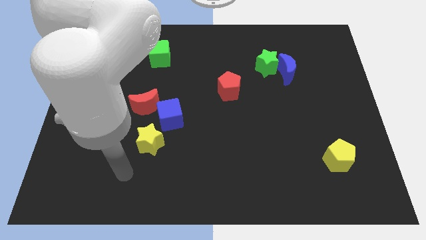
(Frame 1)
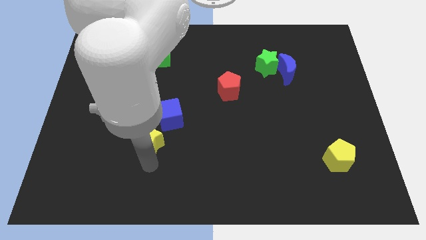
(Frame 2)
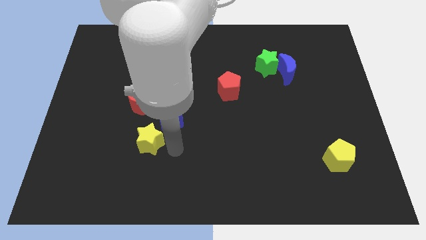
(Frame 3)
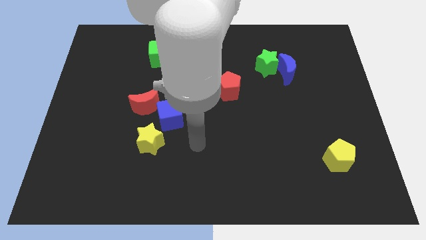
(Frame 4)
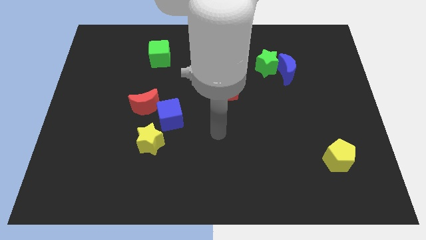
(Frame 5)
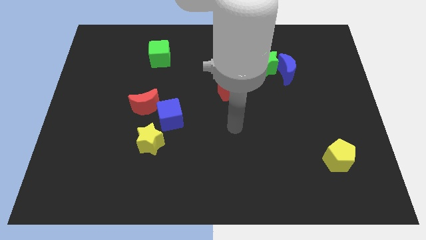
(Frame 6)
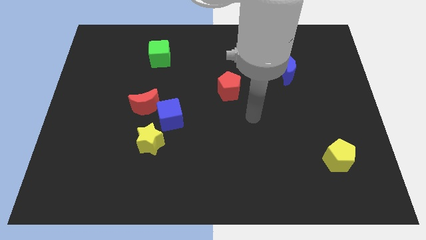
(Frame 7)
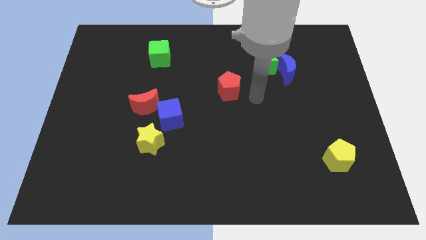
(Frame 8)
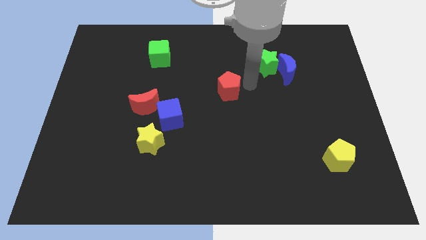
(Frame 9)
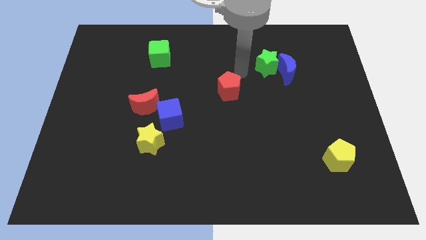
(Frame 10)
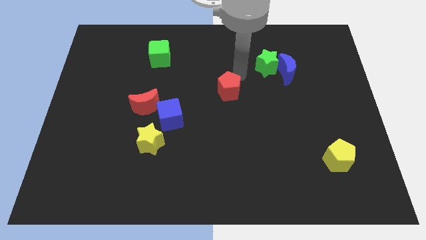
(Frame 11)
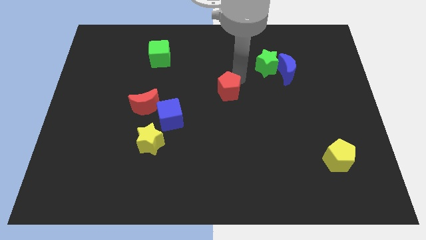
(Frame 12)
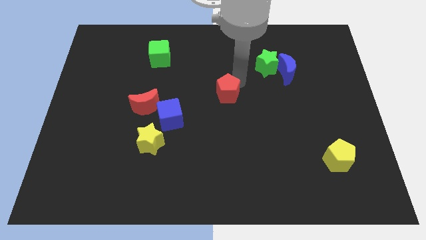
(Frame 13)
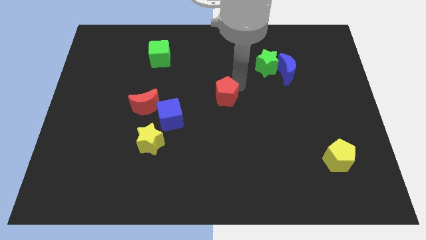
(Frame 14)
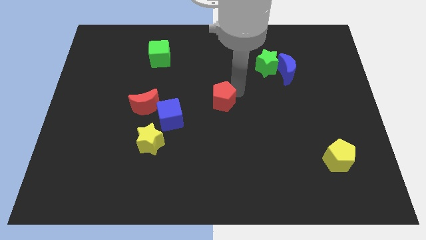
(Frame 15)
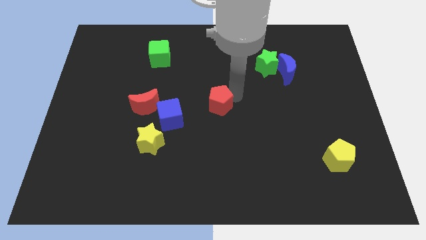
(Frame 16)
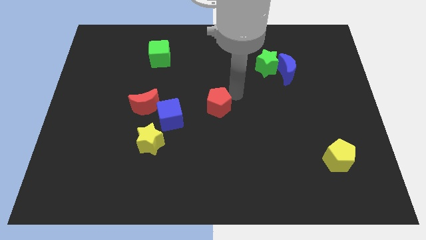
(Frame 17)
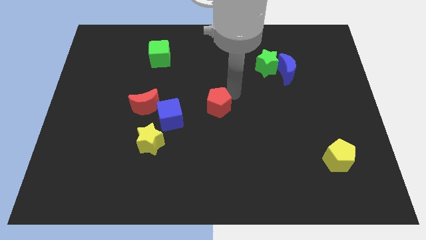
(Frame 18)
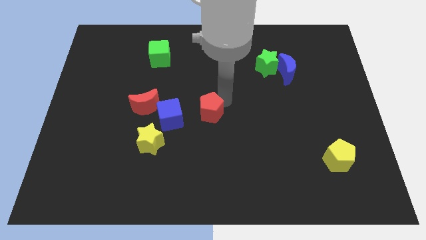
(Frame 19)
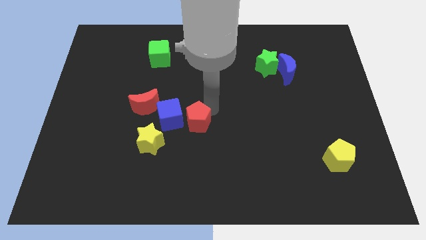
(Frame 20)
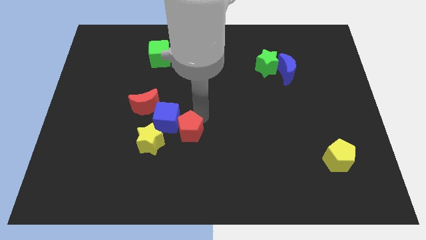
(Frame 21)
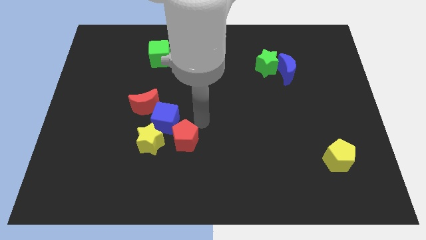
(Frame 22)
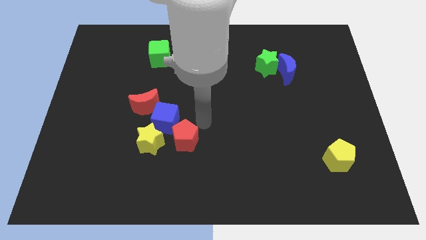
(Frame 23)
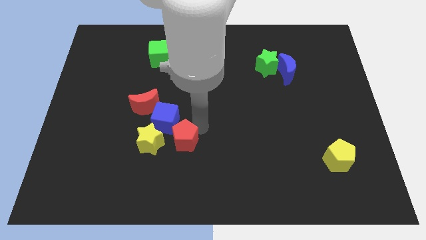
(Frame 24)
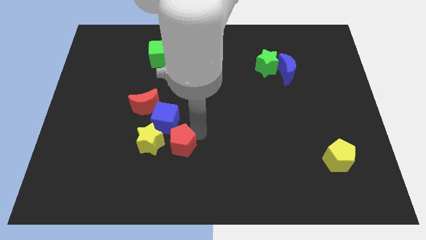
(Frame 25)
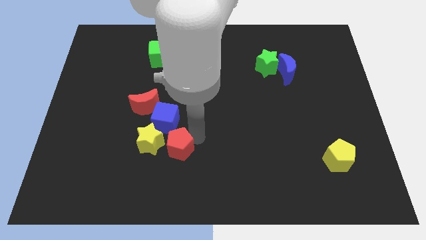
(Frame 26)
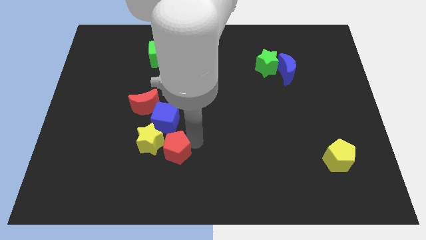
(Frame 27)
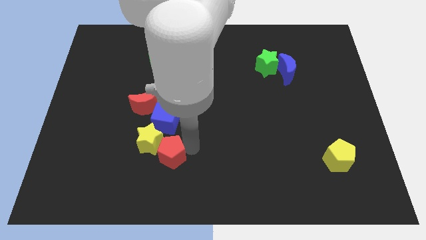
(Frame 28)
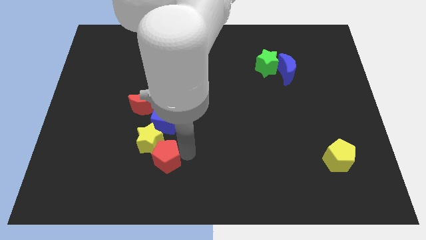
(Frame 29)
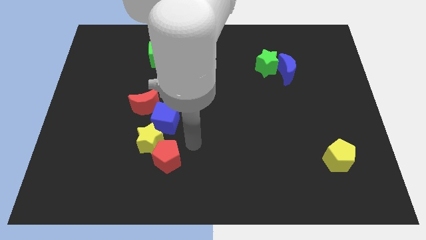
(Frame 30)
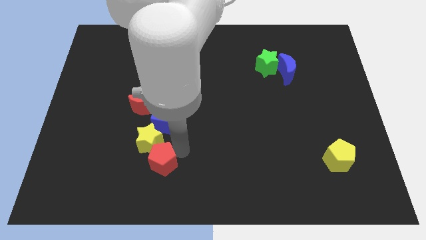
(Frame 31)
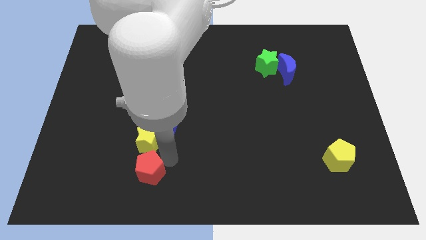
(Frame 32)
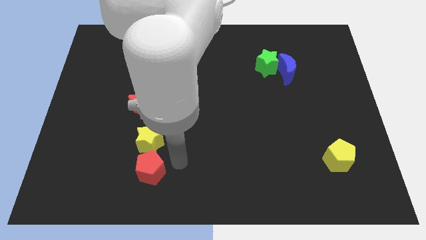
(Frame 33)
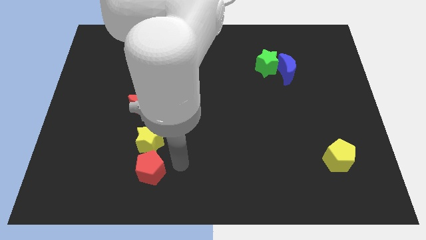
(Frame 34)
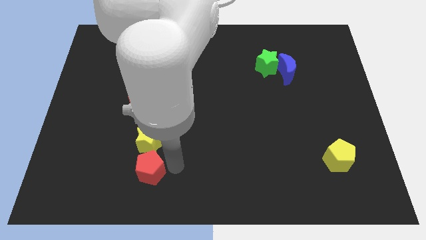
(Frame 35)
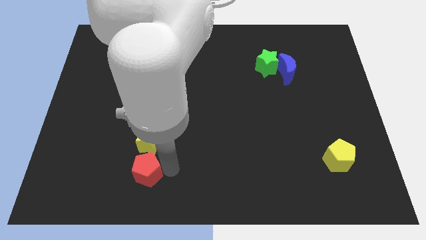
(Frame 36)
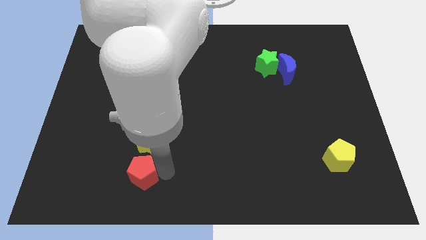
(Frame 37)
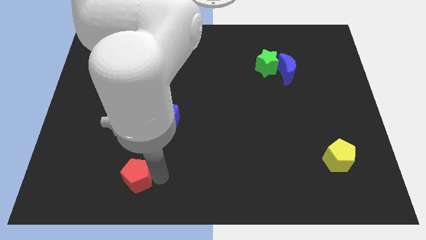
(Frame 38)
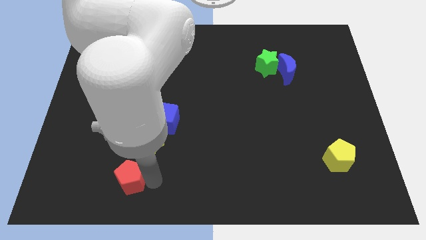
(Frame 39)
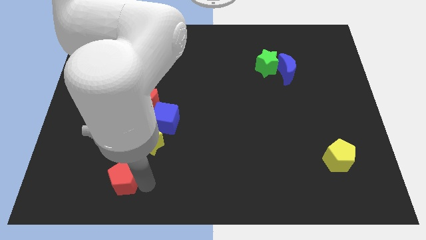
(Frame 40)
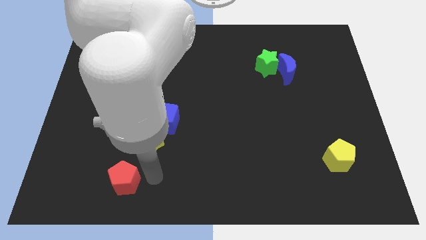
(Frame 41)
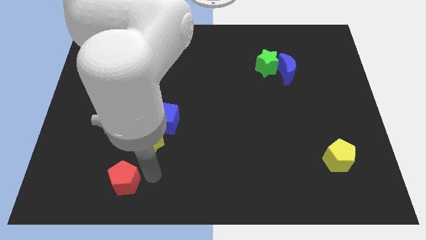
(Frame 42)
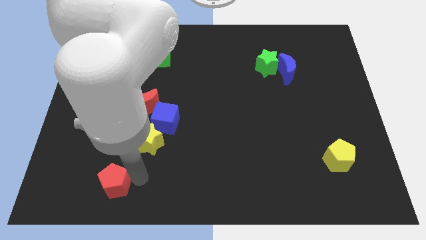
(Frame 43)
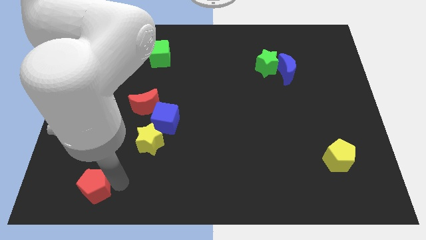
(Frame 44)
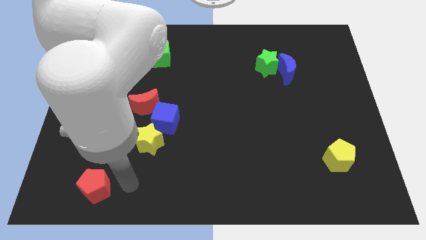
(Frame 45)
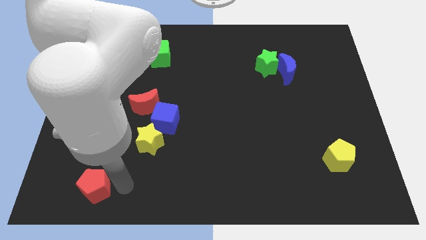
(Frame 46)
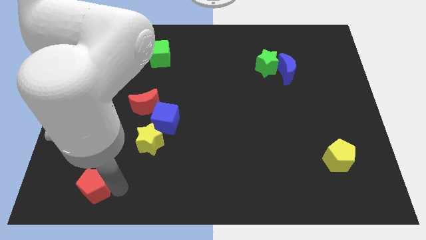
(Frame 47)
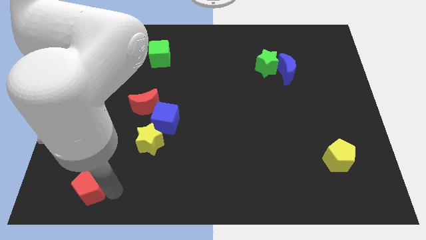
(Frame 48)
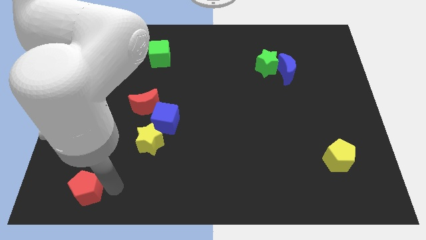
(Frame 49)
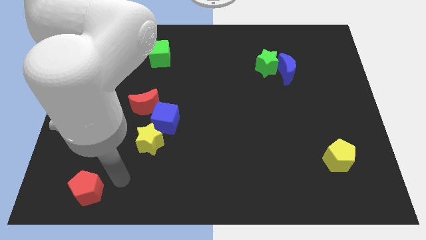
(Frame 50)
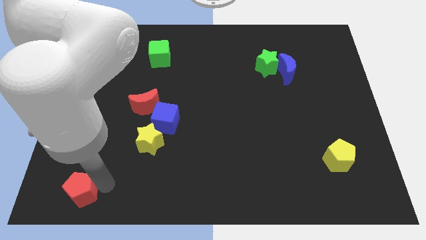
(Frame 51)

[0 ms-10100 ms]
put the red pentagon to the bottom left
